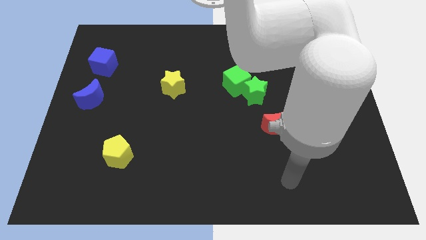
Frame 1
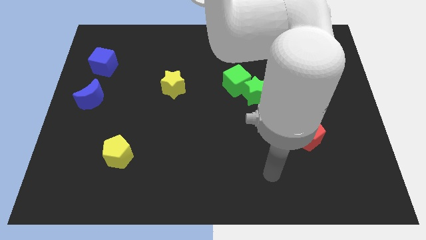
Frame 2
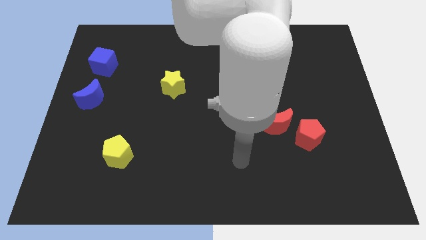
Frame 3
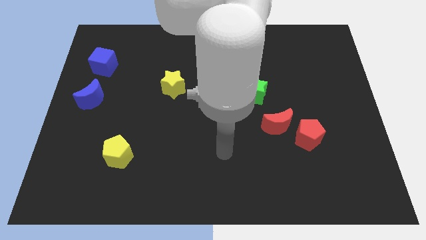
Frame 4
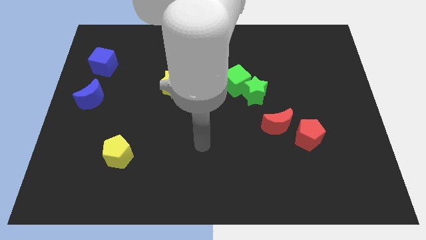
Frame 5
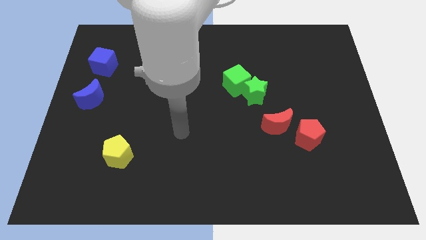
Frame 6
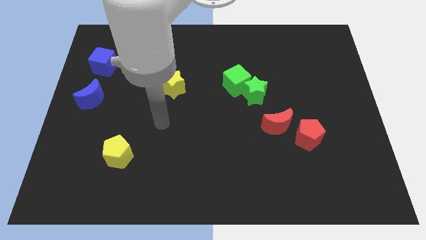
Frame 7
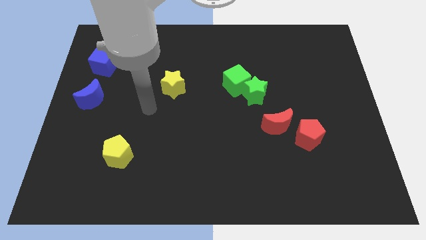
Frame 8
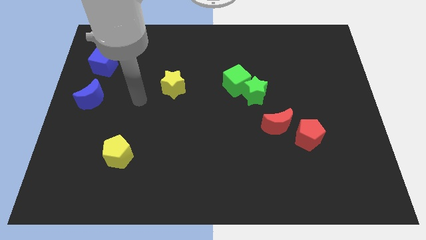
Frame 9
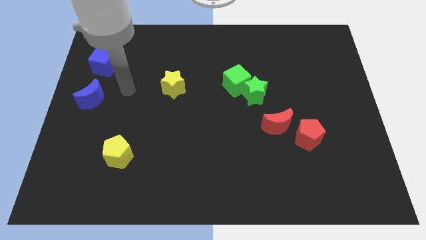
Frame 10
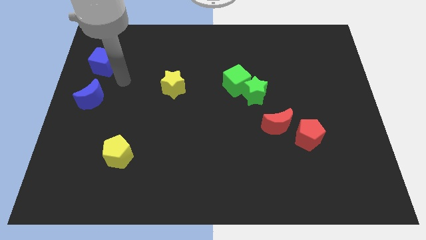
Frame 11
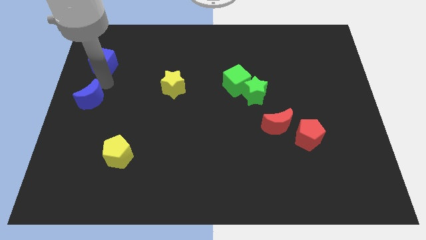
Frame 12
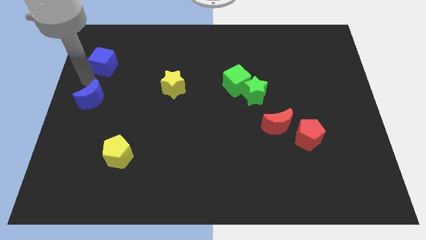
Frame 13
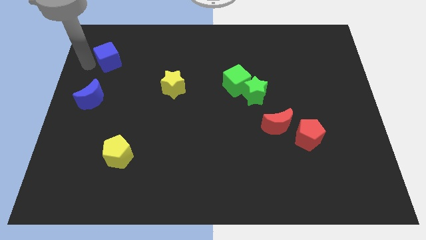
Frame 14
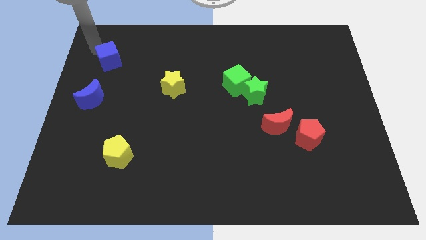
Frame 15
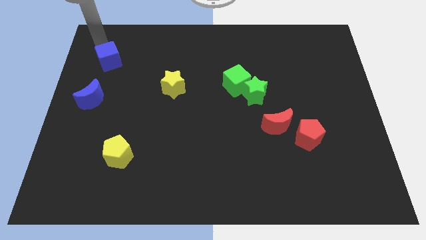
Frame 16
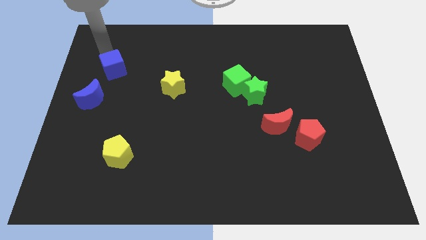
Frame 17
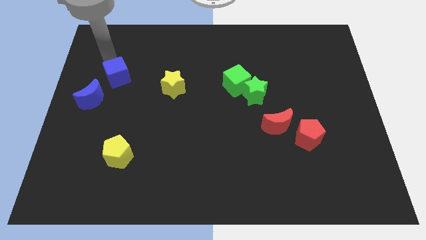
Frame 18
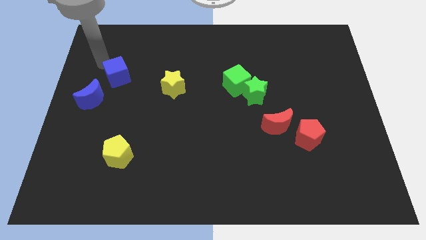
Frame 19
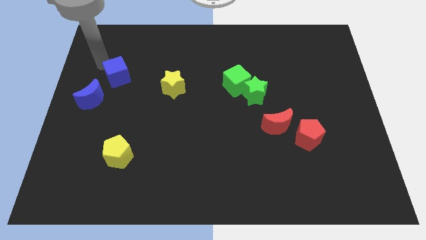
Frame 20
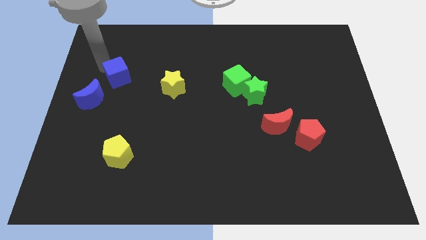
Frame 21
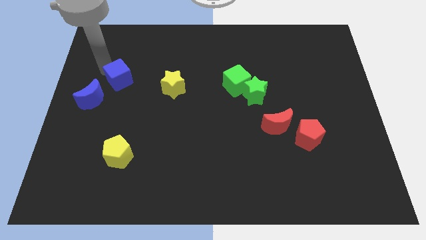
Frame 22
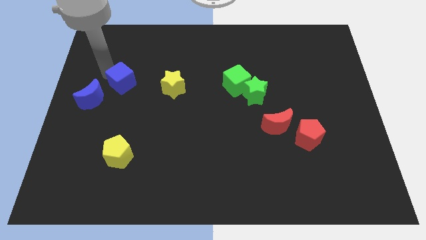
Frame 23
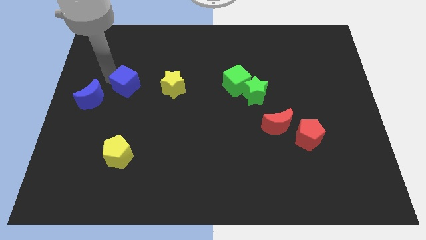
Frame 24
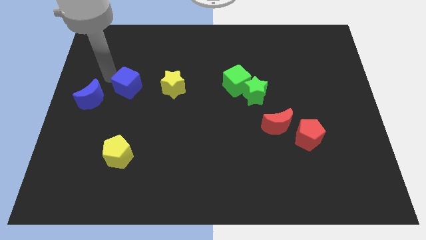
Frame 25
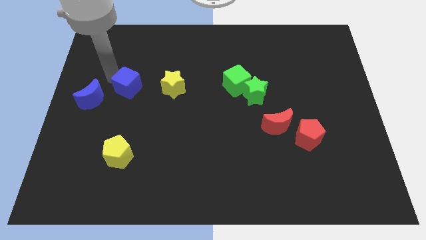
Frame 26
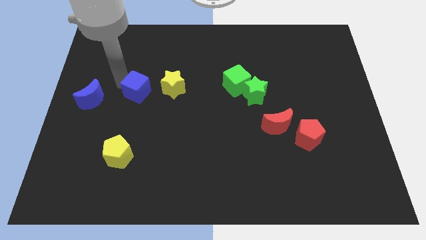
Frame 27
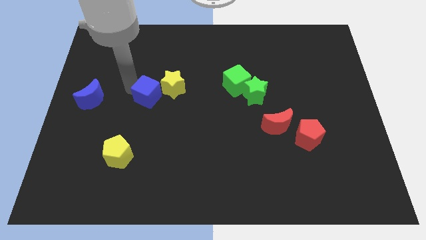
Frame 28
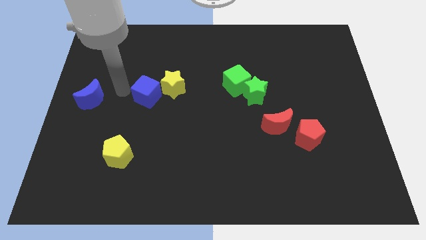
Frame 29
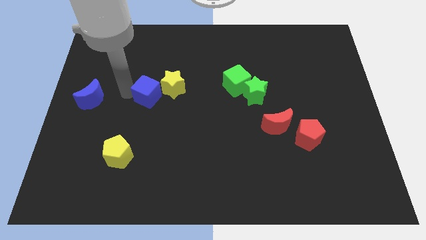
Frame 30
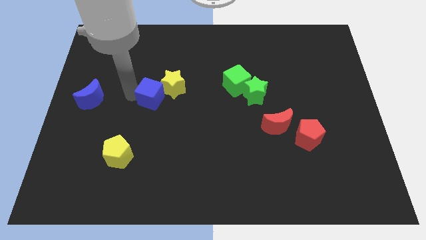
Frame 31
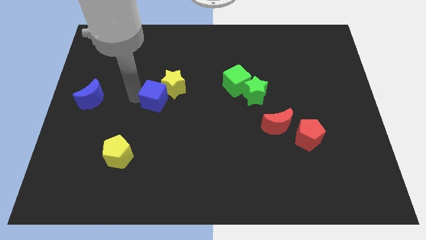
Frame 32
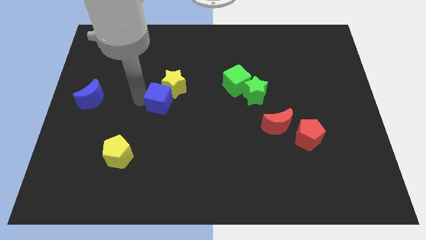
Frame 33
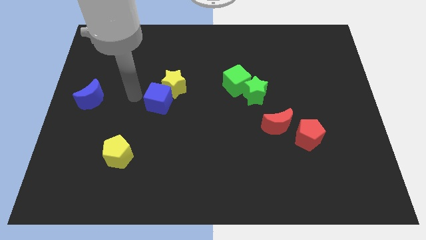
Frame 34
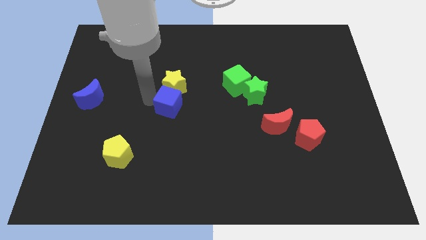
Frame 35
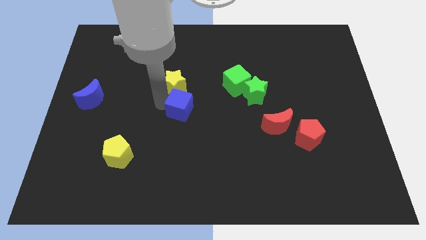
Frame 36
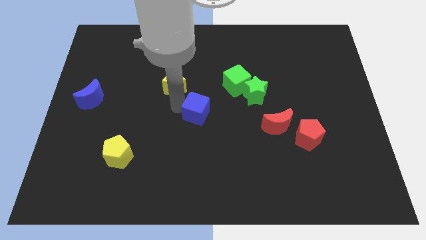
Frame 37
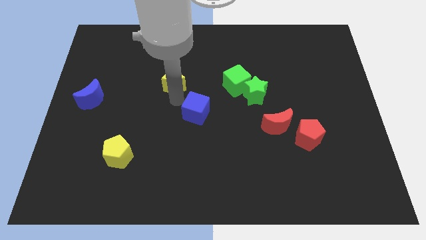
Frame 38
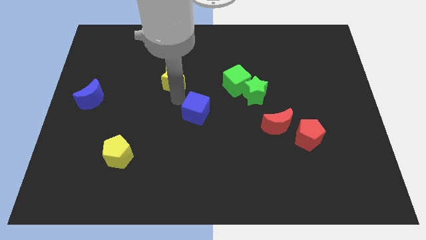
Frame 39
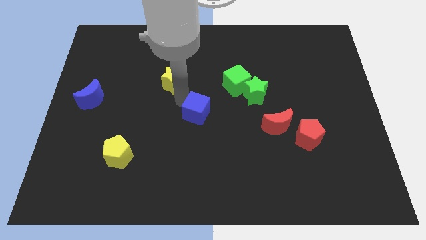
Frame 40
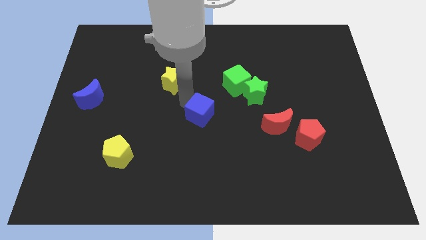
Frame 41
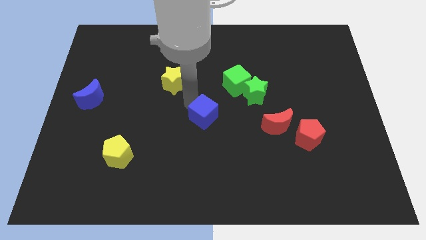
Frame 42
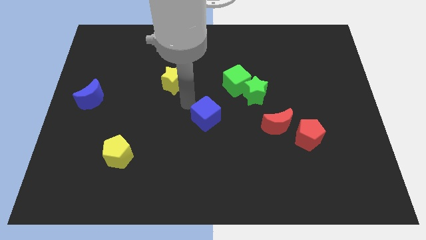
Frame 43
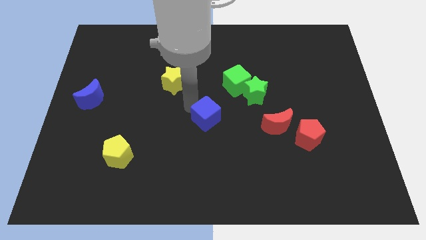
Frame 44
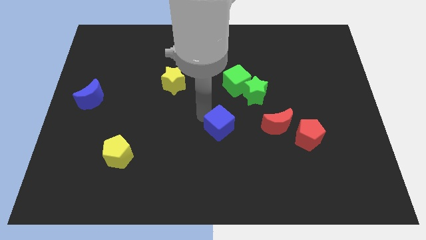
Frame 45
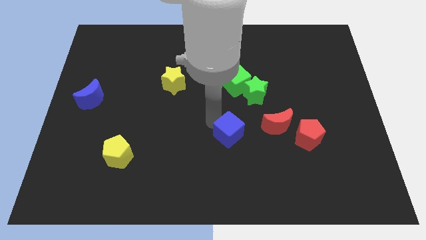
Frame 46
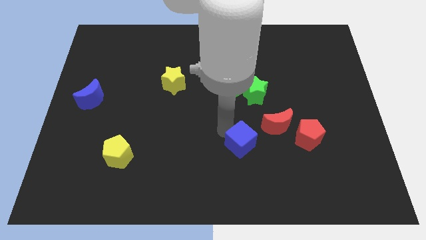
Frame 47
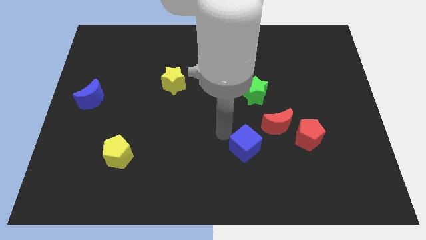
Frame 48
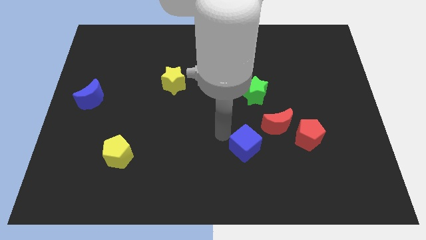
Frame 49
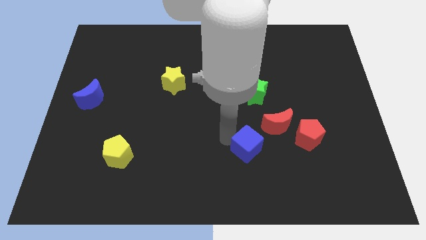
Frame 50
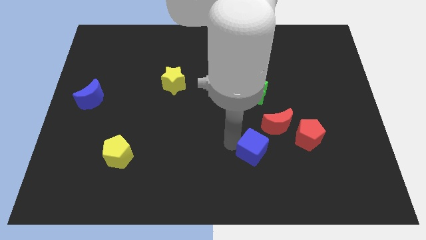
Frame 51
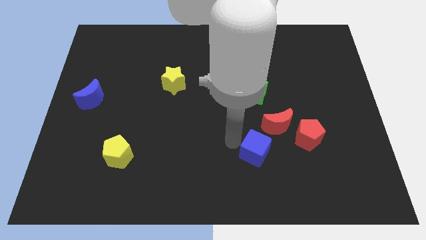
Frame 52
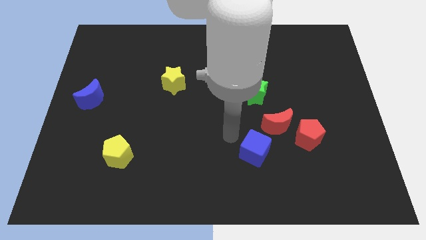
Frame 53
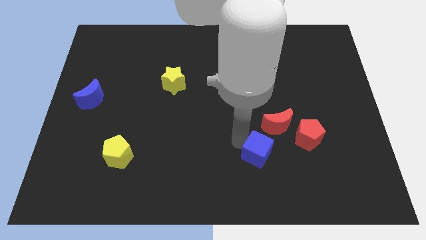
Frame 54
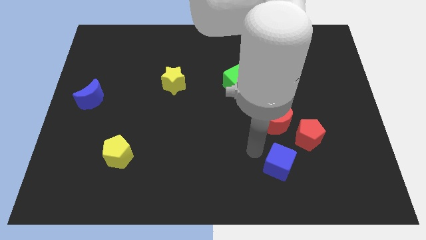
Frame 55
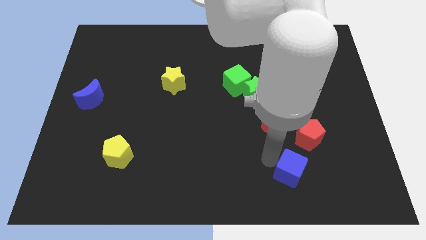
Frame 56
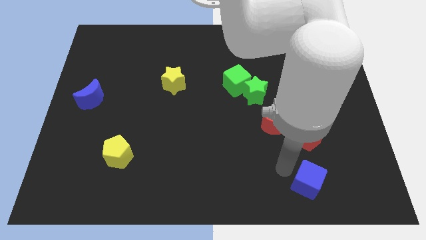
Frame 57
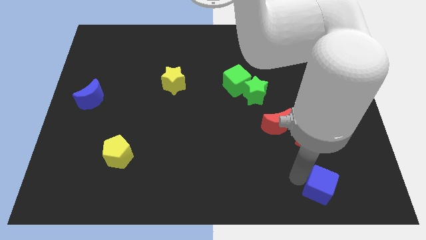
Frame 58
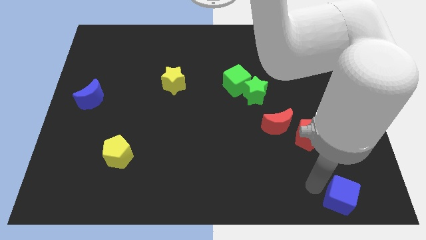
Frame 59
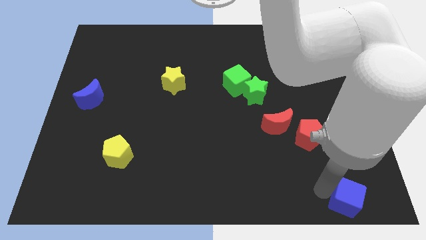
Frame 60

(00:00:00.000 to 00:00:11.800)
slide the blue cube to the bottom right corner
